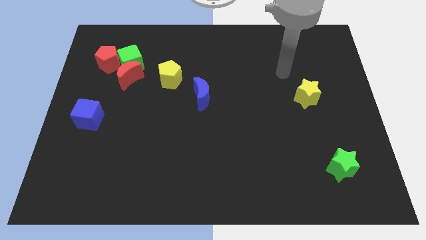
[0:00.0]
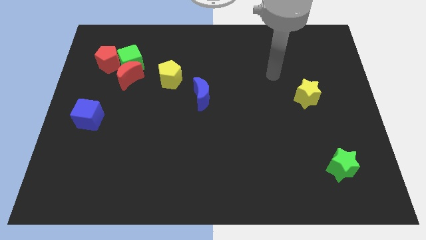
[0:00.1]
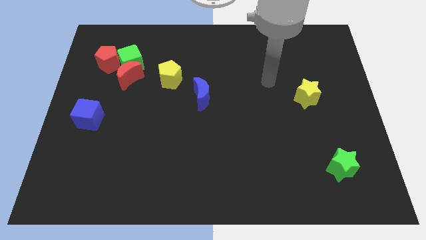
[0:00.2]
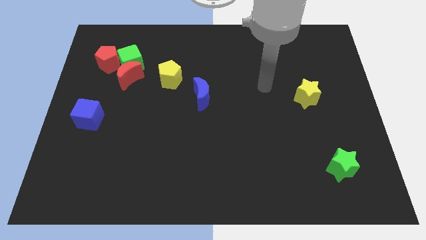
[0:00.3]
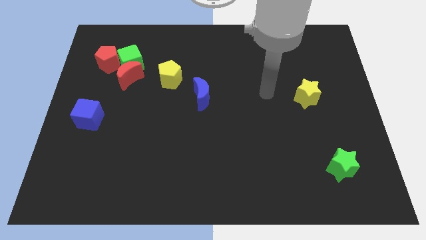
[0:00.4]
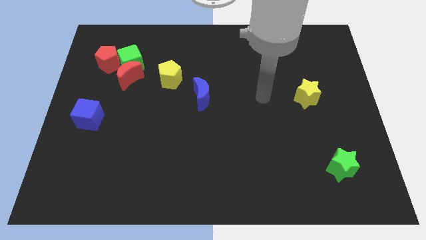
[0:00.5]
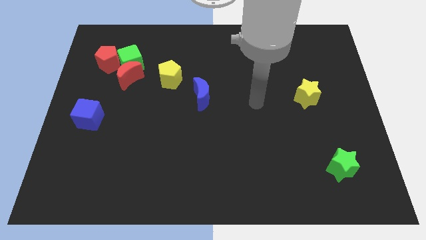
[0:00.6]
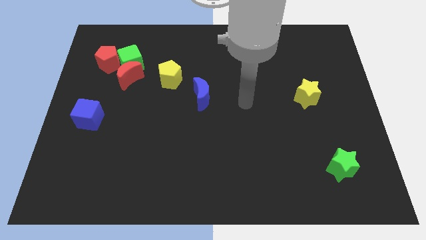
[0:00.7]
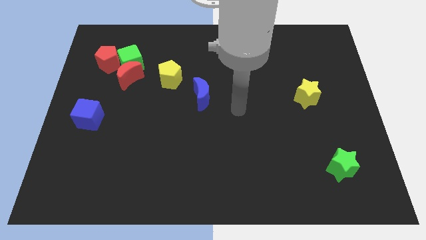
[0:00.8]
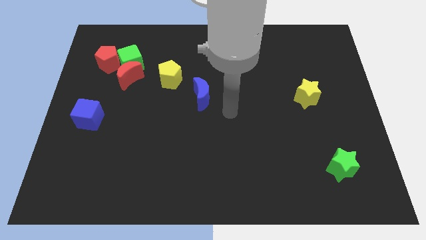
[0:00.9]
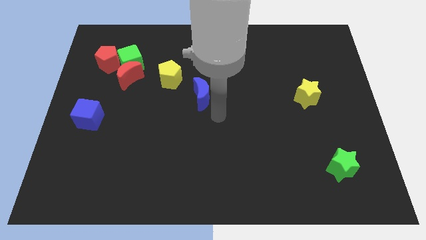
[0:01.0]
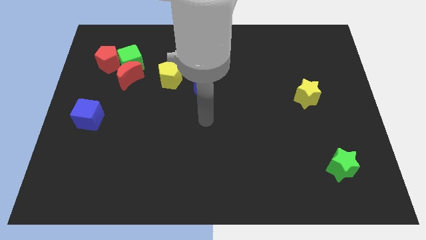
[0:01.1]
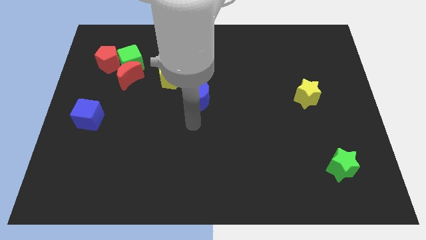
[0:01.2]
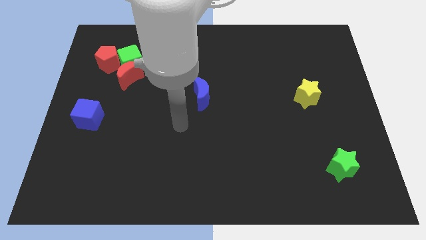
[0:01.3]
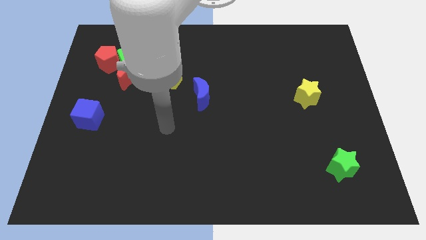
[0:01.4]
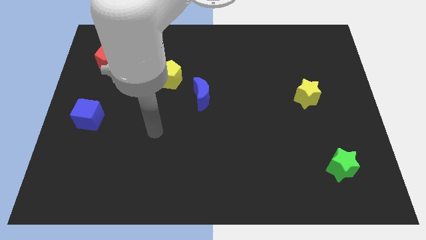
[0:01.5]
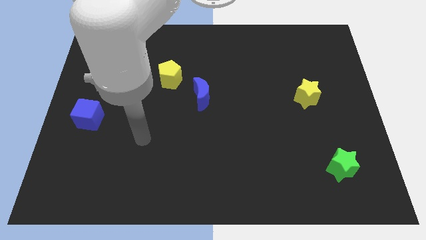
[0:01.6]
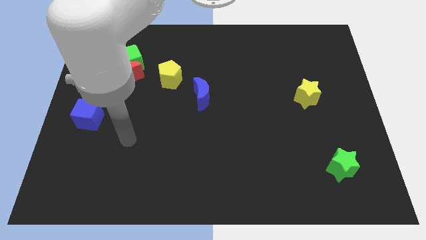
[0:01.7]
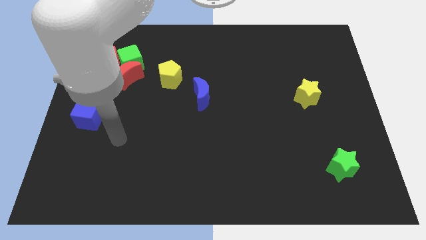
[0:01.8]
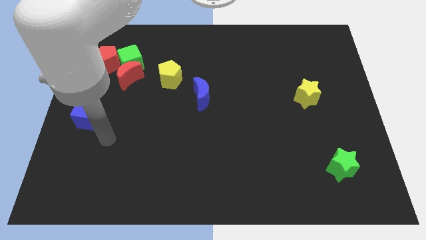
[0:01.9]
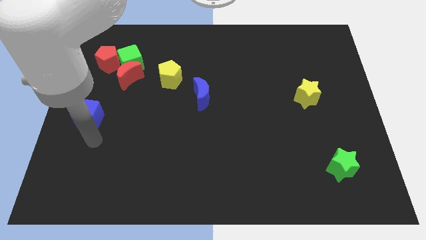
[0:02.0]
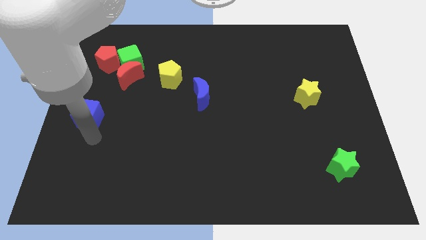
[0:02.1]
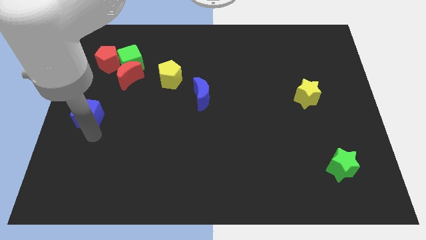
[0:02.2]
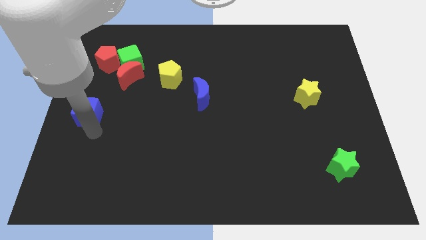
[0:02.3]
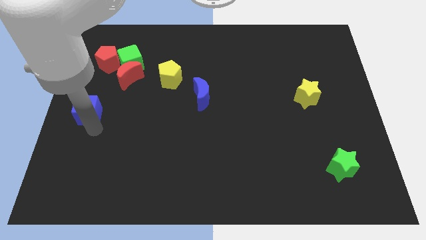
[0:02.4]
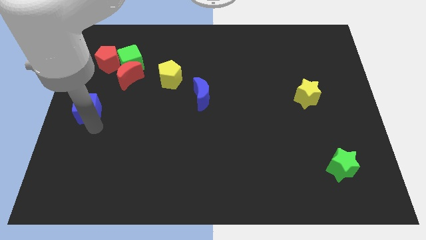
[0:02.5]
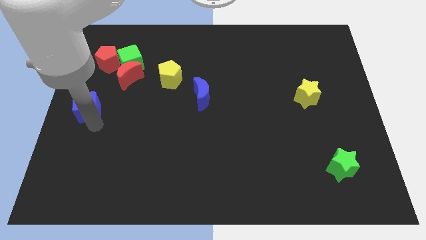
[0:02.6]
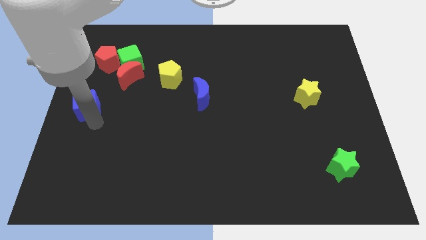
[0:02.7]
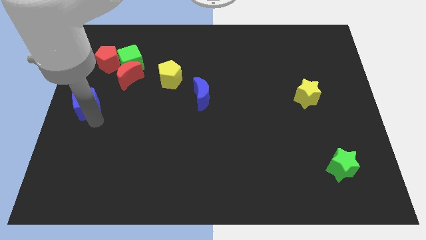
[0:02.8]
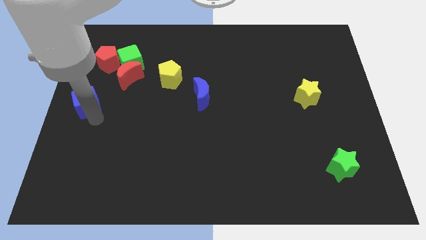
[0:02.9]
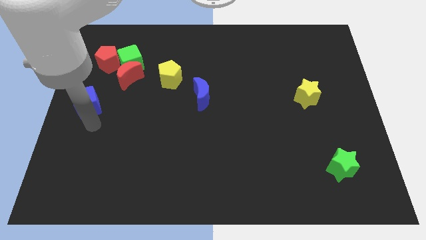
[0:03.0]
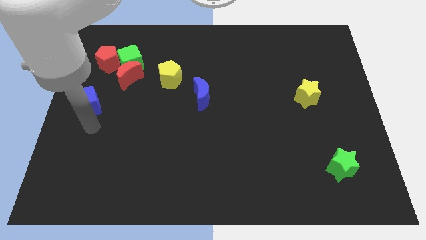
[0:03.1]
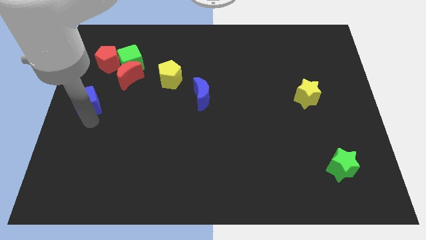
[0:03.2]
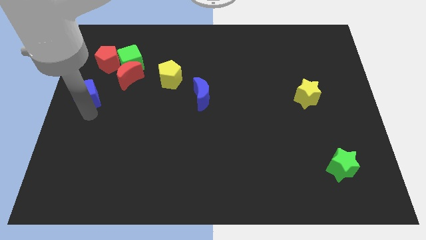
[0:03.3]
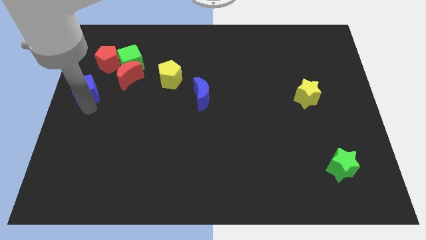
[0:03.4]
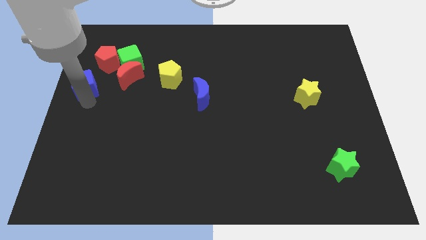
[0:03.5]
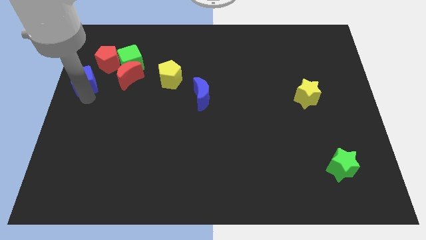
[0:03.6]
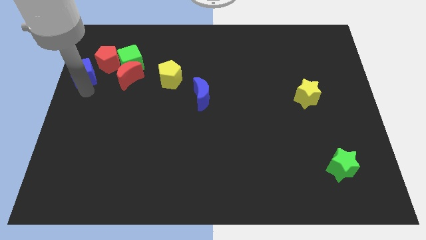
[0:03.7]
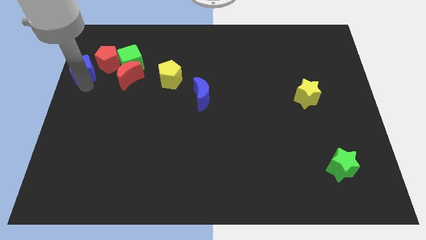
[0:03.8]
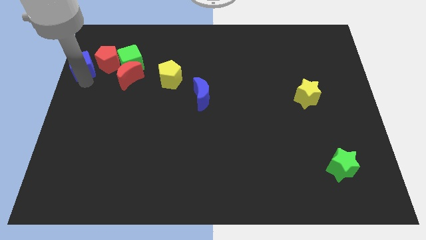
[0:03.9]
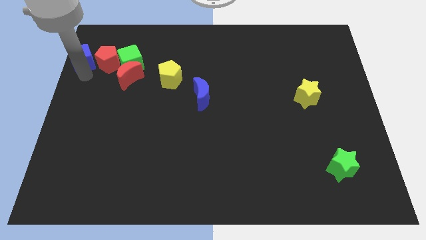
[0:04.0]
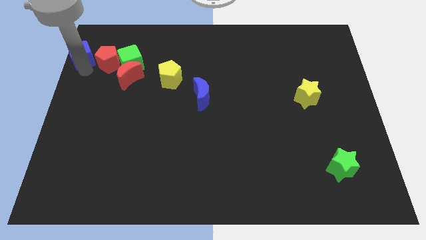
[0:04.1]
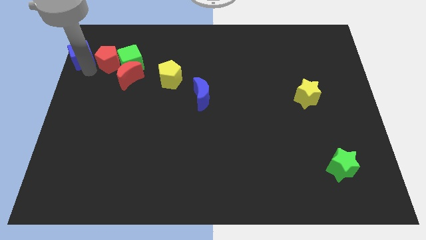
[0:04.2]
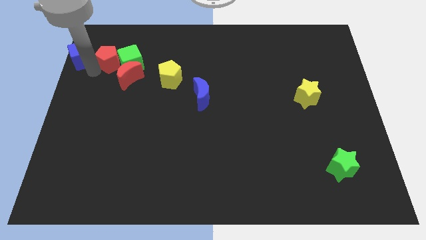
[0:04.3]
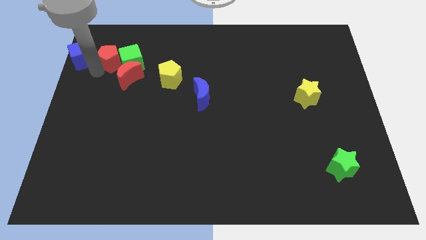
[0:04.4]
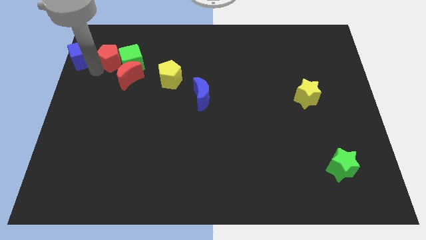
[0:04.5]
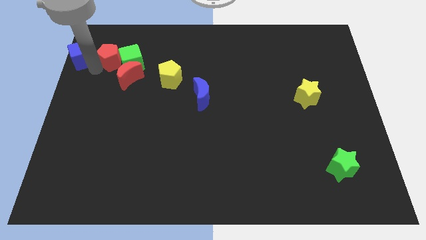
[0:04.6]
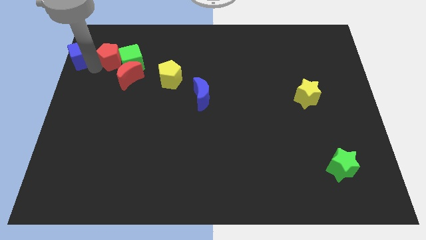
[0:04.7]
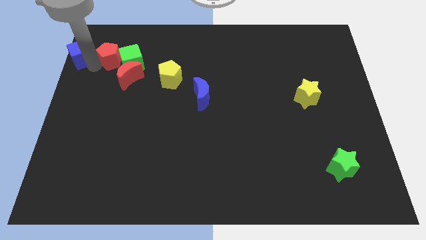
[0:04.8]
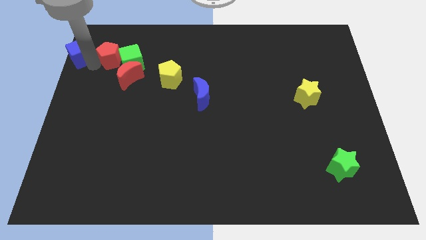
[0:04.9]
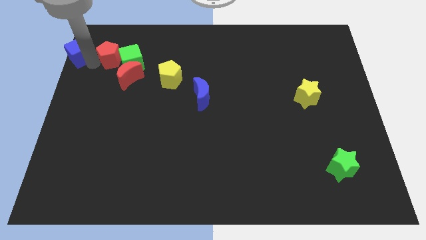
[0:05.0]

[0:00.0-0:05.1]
slide the blue cube to the upper left corner
